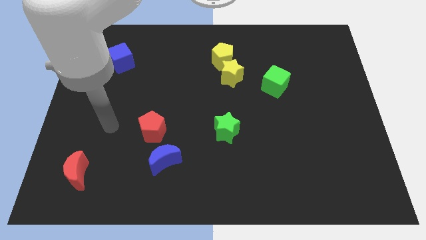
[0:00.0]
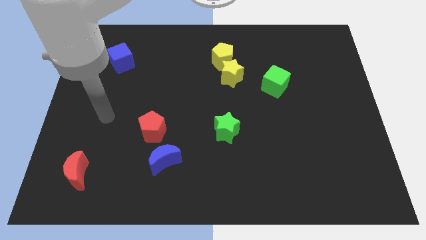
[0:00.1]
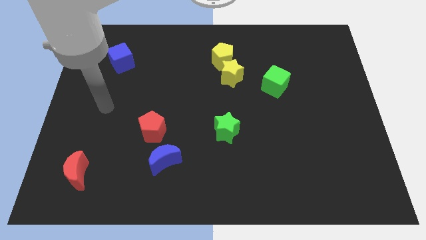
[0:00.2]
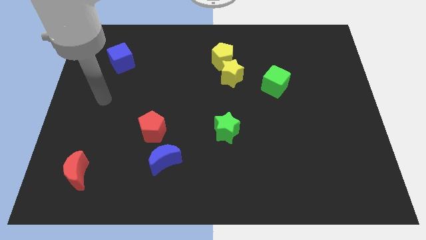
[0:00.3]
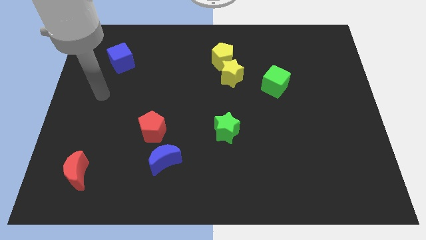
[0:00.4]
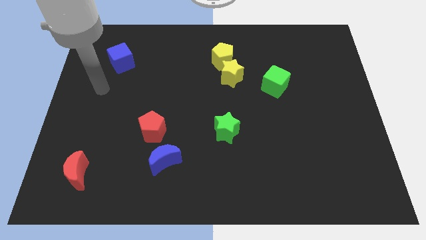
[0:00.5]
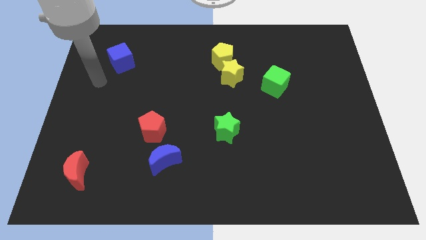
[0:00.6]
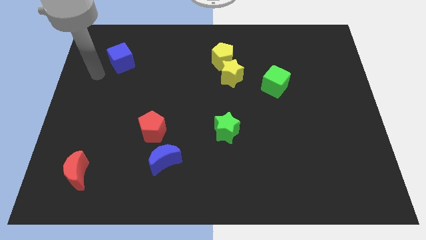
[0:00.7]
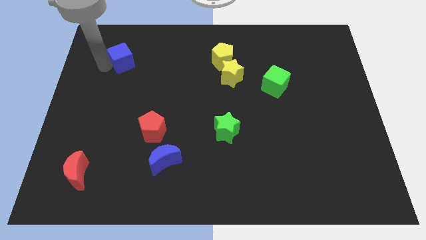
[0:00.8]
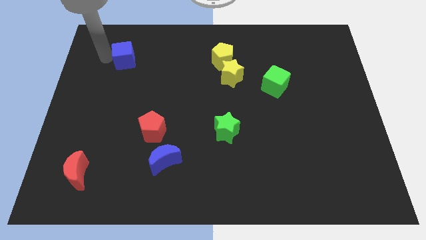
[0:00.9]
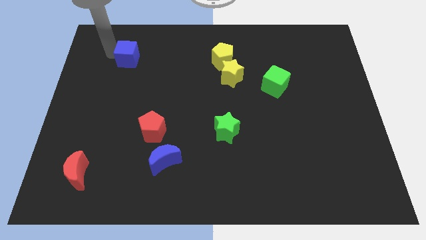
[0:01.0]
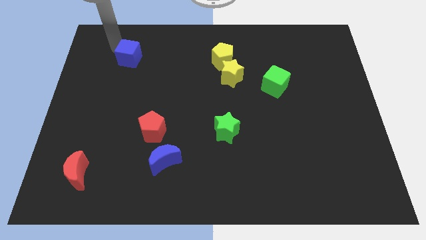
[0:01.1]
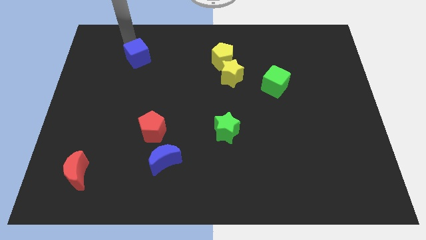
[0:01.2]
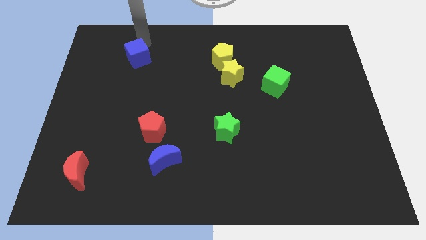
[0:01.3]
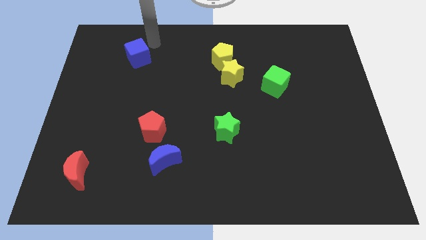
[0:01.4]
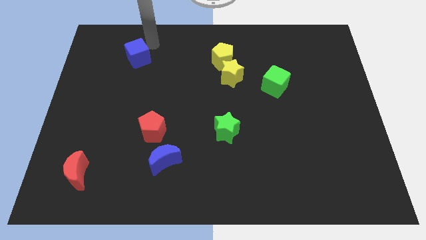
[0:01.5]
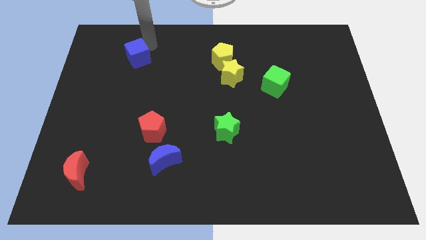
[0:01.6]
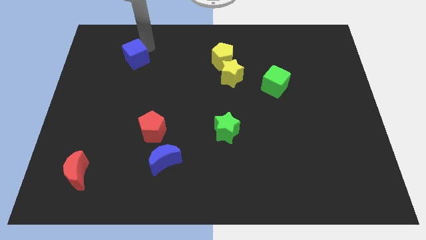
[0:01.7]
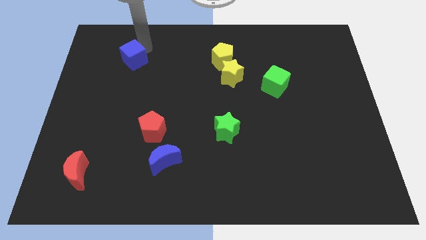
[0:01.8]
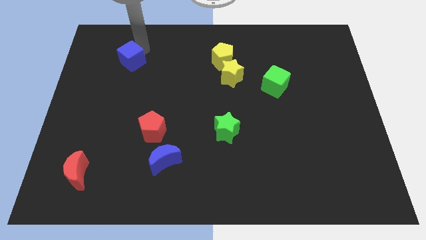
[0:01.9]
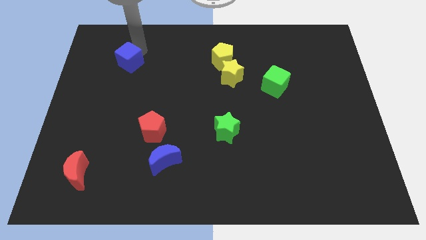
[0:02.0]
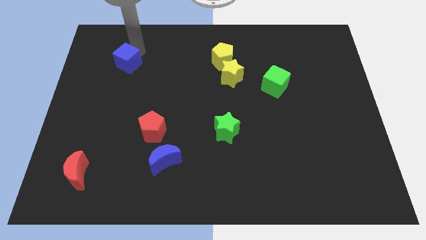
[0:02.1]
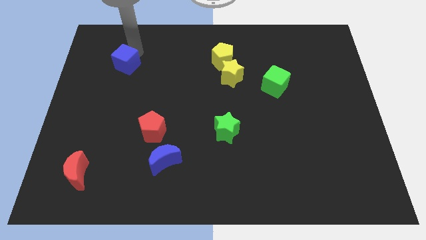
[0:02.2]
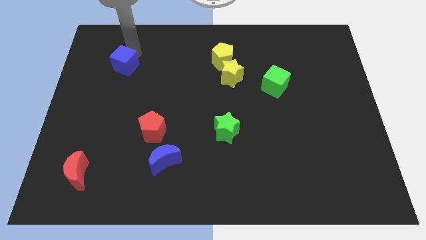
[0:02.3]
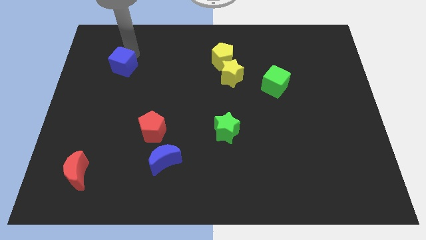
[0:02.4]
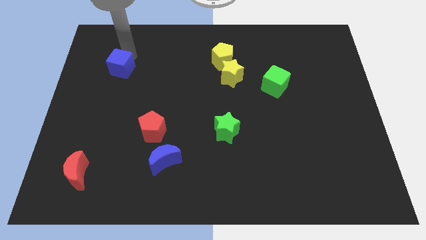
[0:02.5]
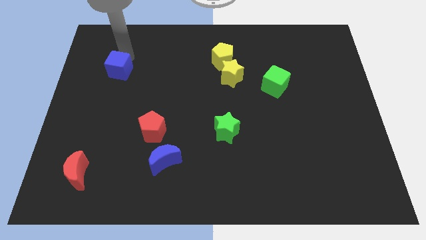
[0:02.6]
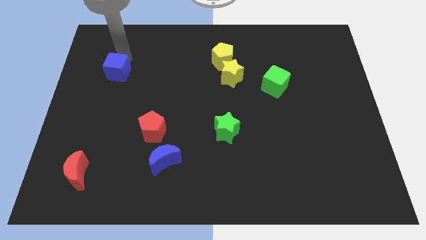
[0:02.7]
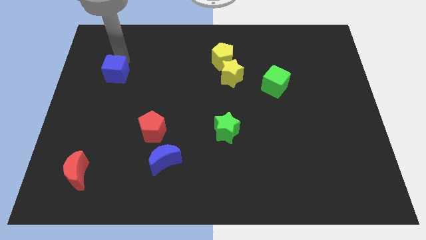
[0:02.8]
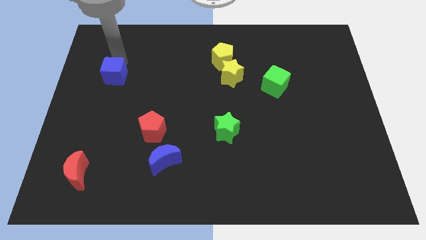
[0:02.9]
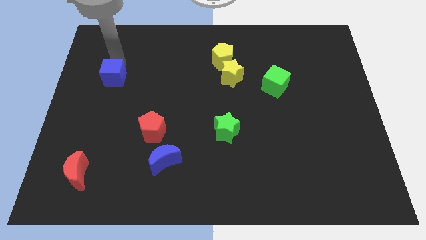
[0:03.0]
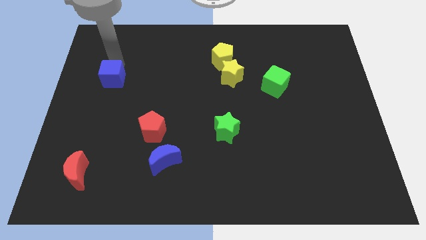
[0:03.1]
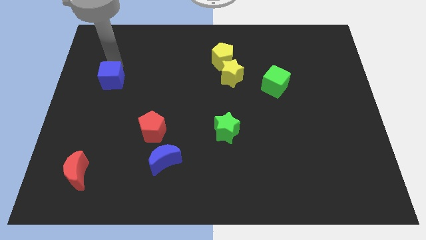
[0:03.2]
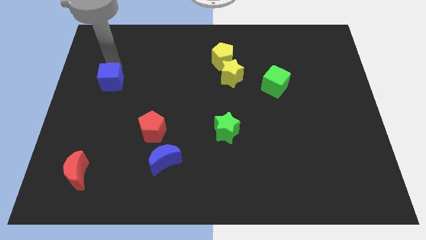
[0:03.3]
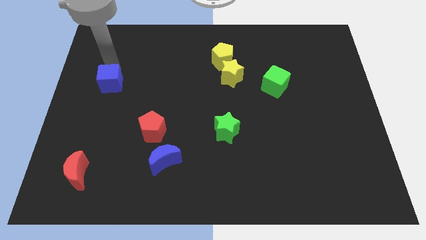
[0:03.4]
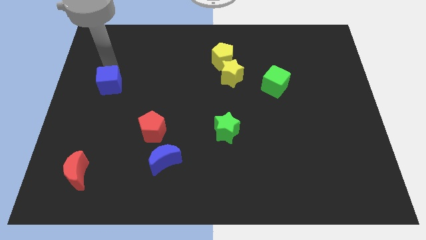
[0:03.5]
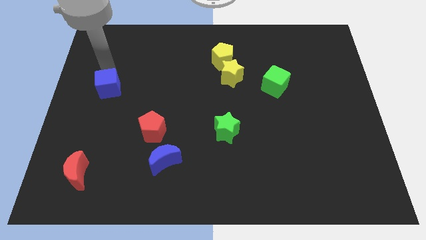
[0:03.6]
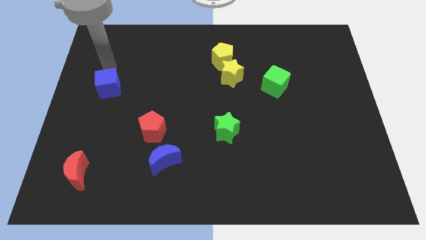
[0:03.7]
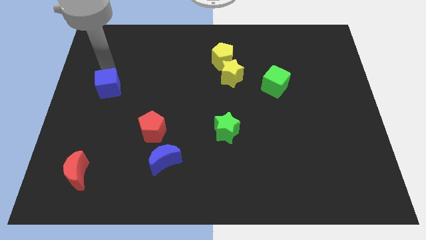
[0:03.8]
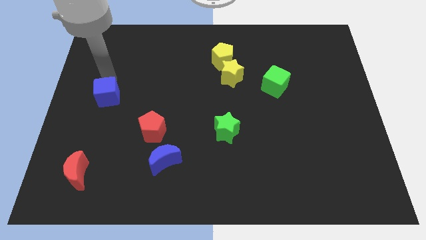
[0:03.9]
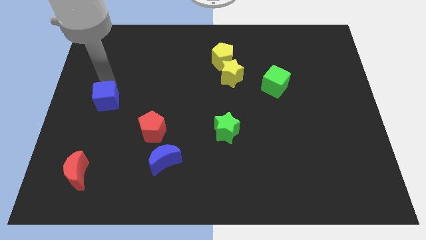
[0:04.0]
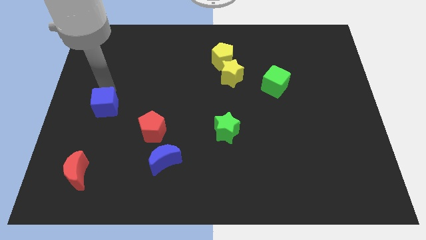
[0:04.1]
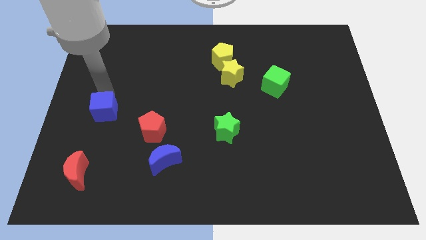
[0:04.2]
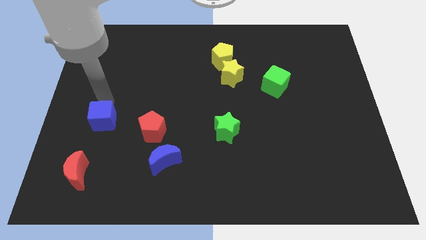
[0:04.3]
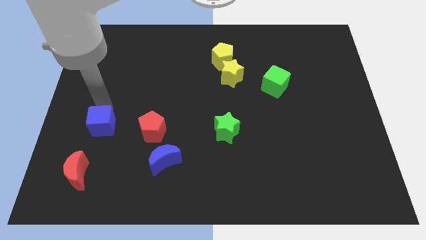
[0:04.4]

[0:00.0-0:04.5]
slide the blue cube downwards

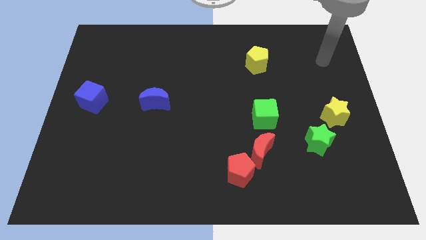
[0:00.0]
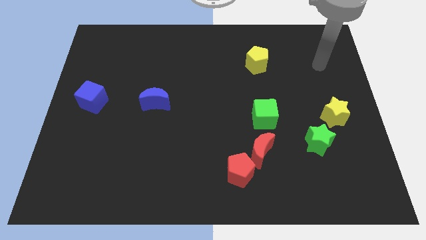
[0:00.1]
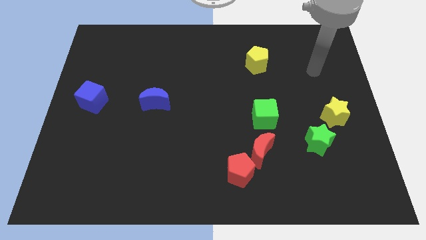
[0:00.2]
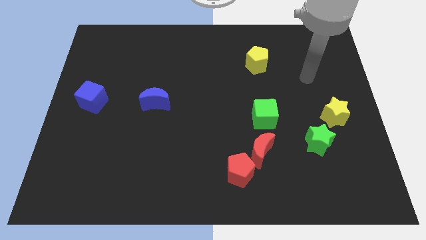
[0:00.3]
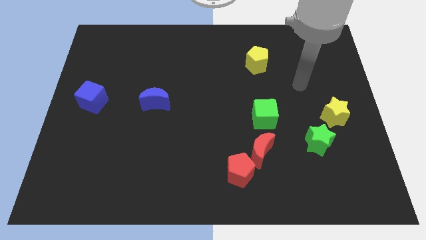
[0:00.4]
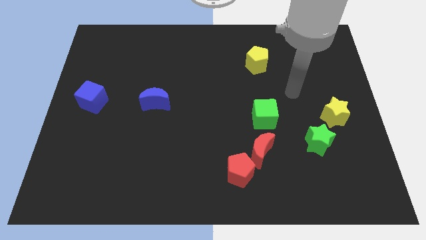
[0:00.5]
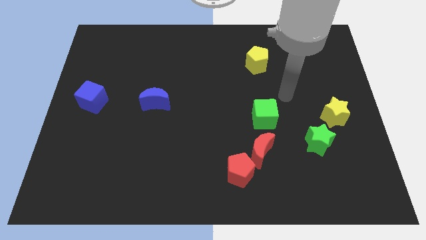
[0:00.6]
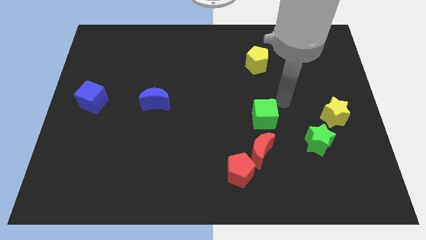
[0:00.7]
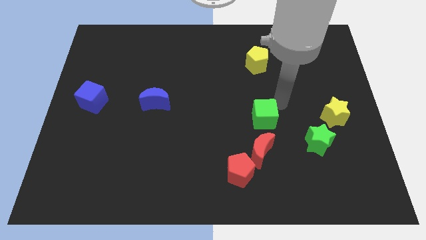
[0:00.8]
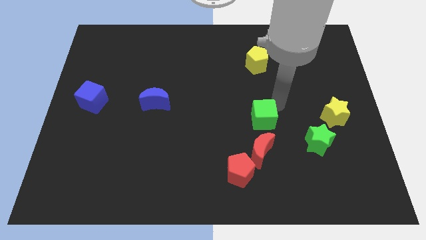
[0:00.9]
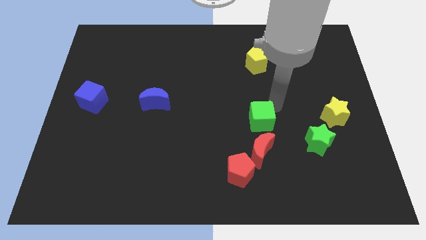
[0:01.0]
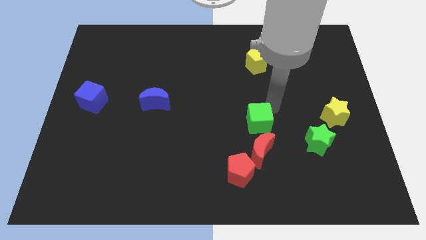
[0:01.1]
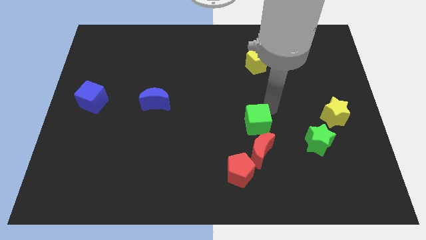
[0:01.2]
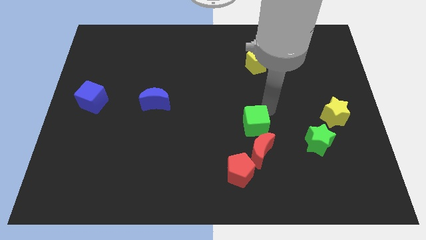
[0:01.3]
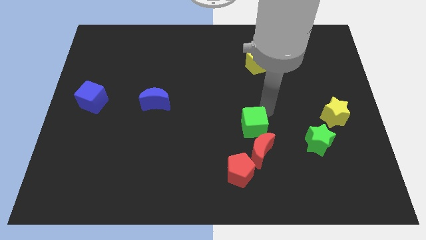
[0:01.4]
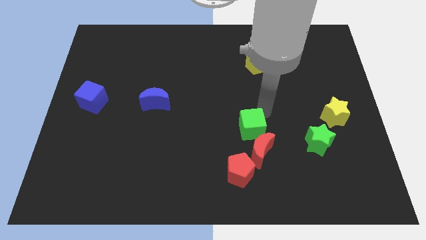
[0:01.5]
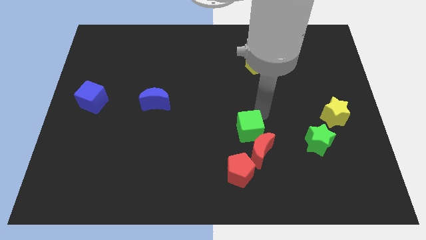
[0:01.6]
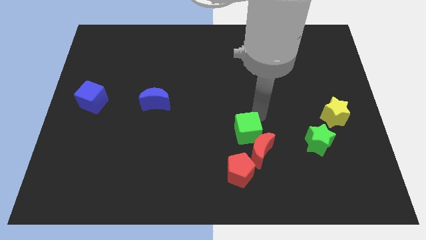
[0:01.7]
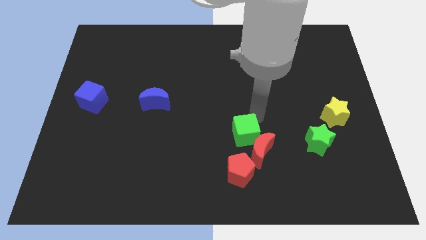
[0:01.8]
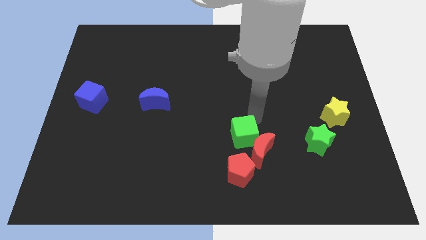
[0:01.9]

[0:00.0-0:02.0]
move the green cube down and left a bit

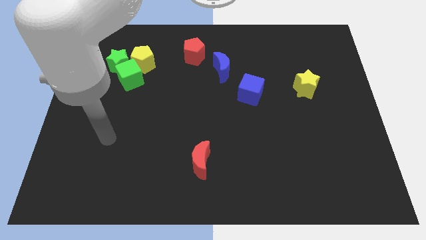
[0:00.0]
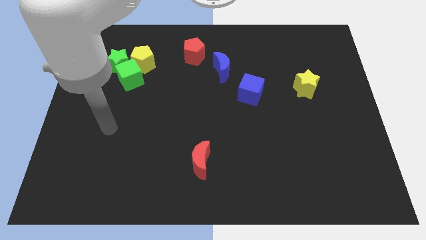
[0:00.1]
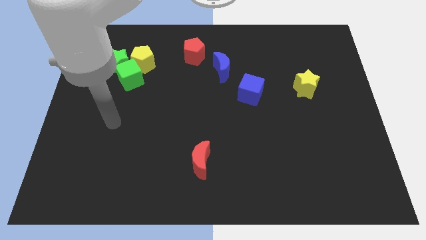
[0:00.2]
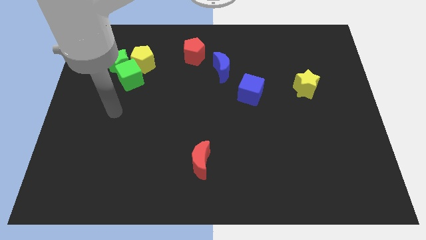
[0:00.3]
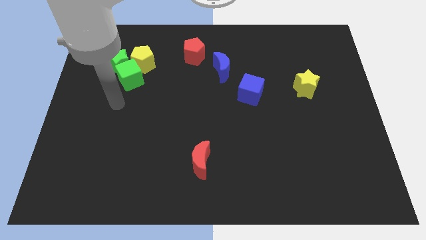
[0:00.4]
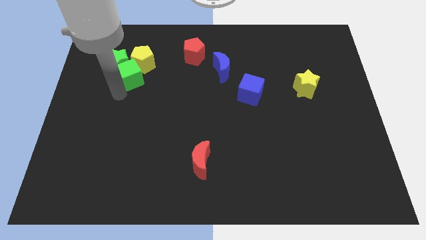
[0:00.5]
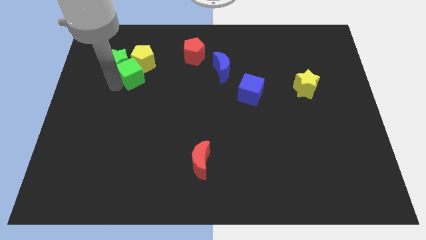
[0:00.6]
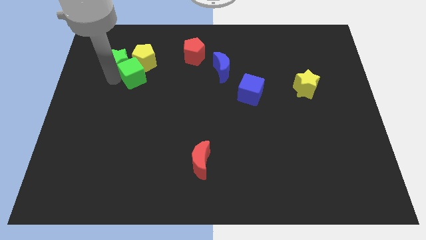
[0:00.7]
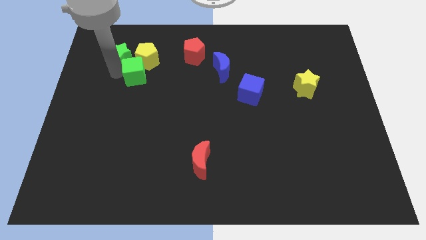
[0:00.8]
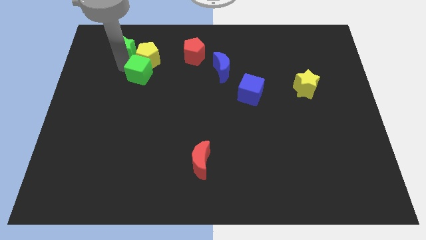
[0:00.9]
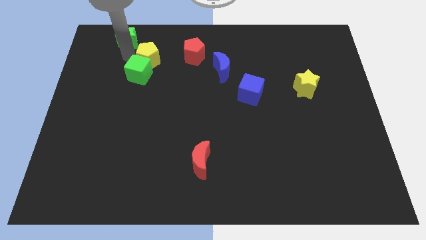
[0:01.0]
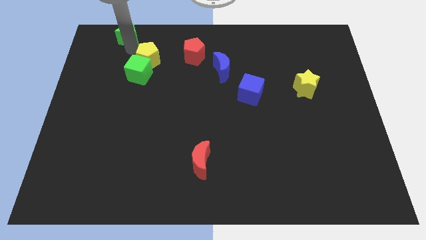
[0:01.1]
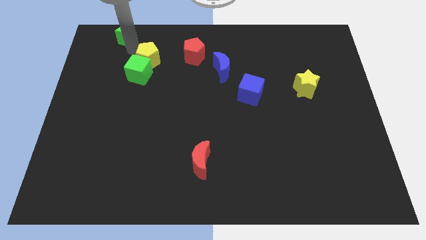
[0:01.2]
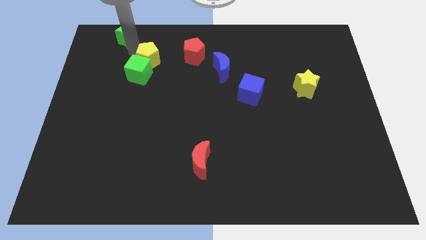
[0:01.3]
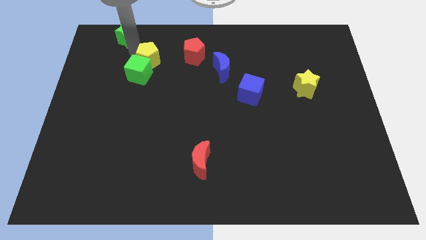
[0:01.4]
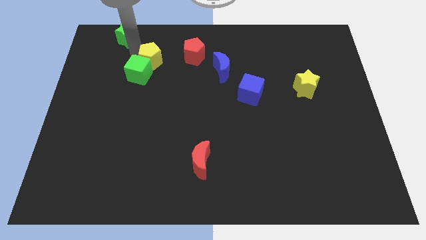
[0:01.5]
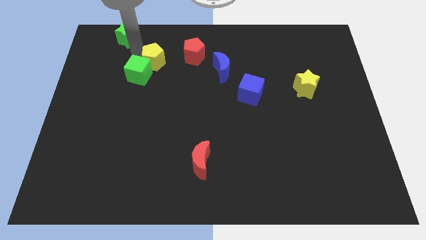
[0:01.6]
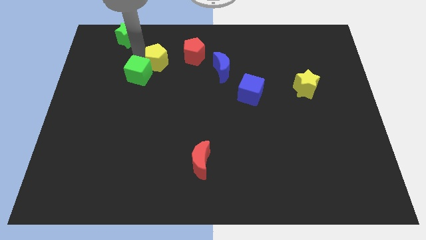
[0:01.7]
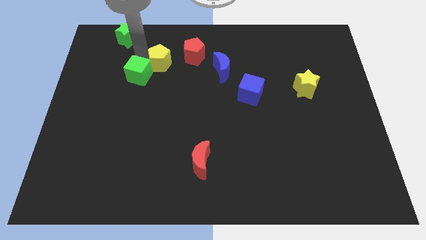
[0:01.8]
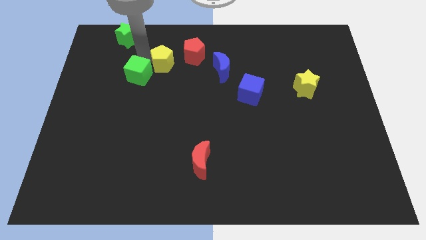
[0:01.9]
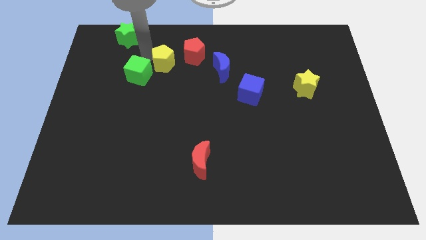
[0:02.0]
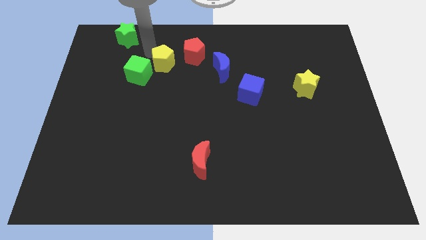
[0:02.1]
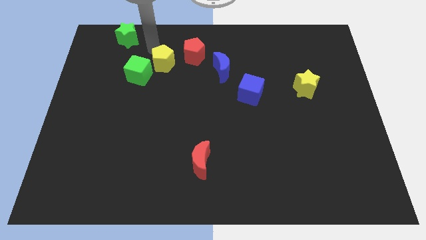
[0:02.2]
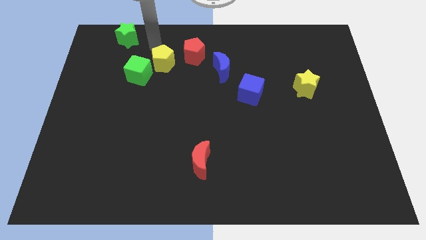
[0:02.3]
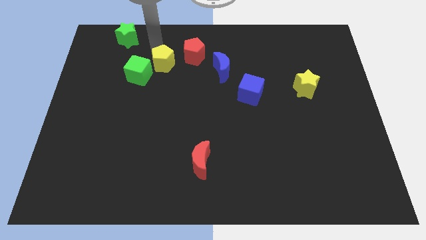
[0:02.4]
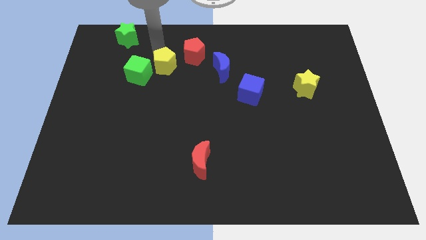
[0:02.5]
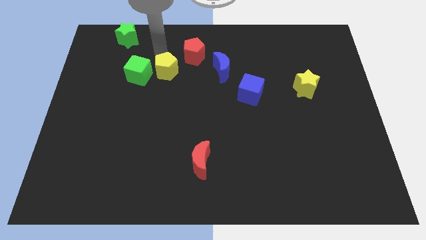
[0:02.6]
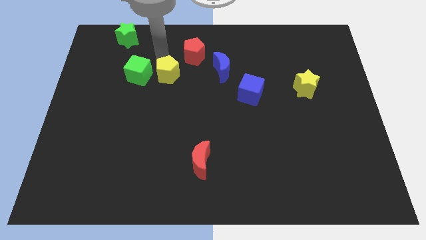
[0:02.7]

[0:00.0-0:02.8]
slightly move the yellow pentagon diagonally downwards and to the right
